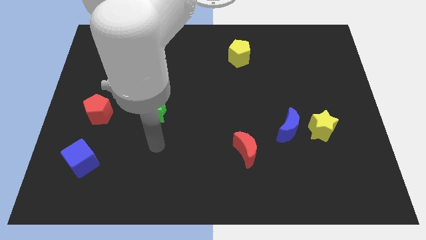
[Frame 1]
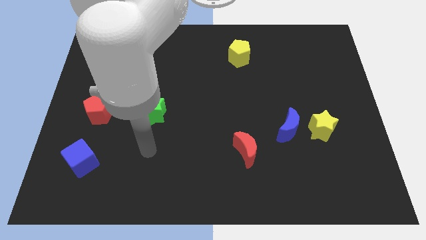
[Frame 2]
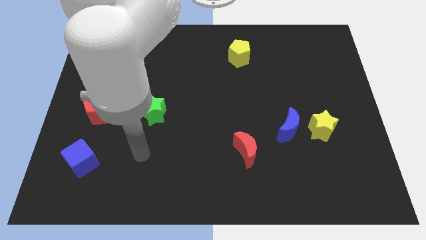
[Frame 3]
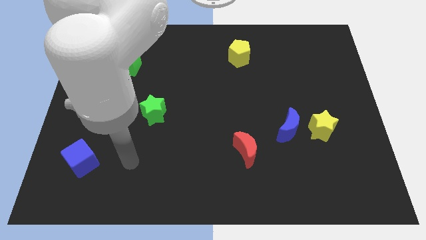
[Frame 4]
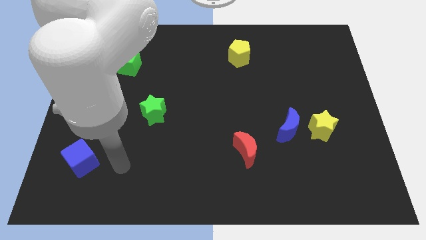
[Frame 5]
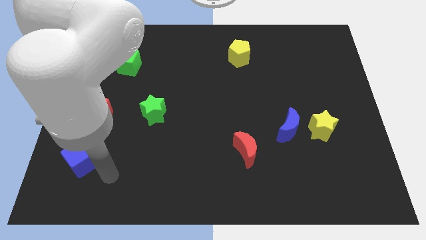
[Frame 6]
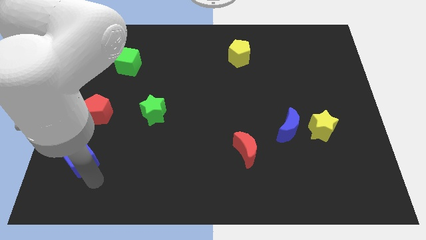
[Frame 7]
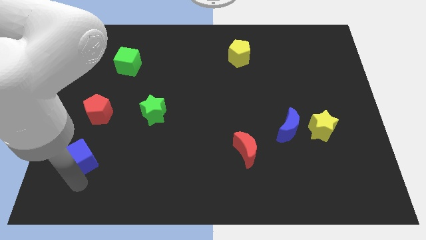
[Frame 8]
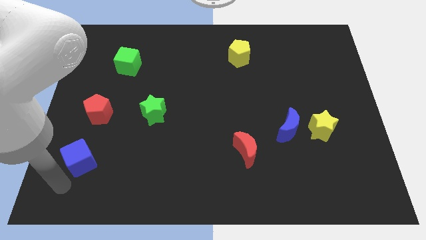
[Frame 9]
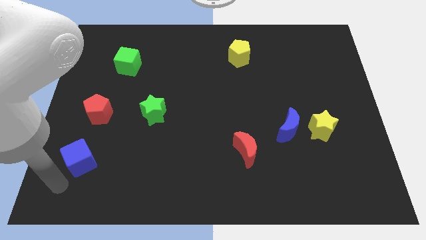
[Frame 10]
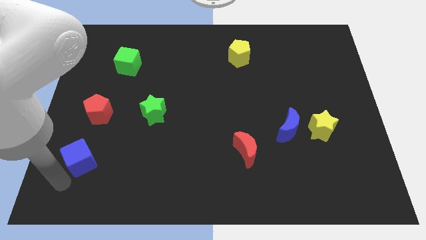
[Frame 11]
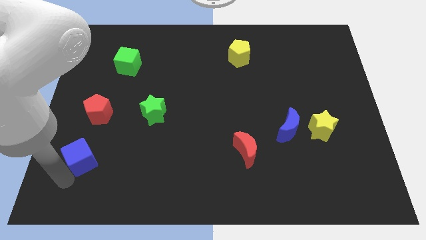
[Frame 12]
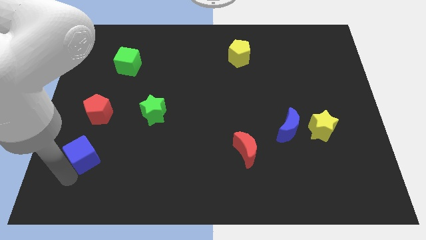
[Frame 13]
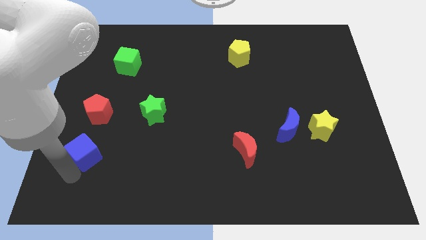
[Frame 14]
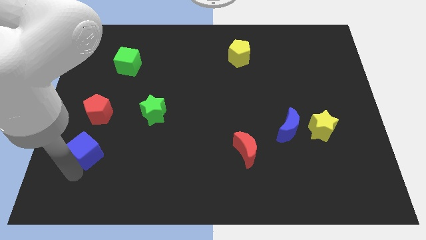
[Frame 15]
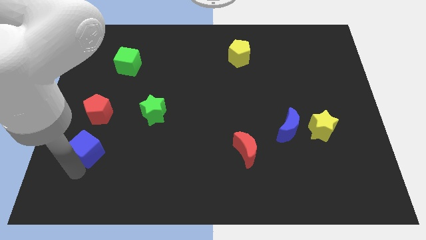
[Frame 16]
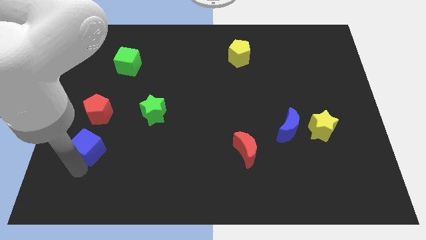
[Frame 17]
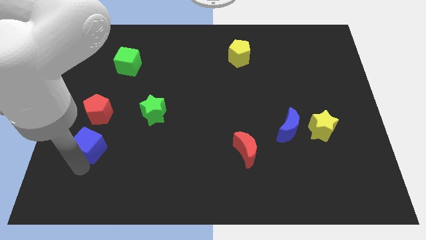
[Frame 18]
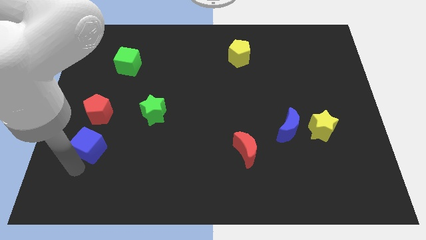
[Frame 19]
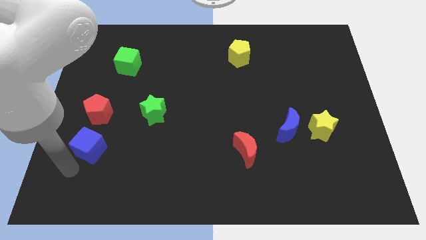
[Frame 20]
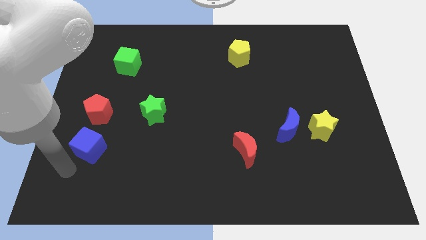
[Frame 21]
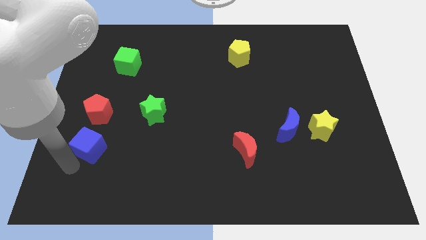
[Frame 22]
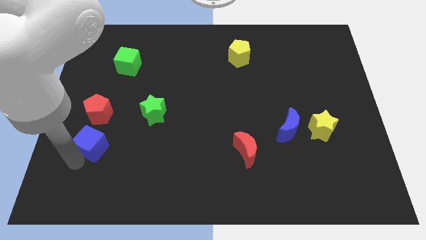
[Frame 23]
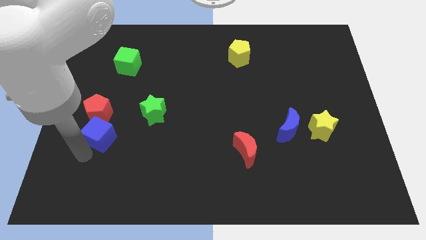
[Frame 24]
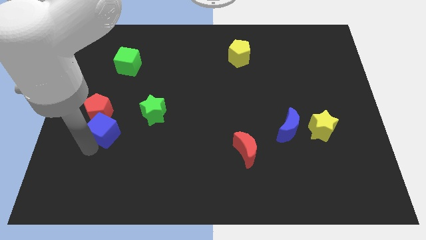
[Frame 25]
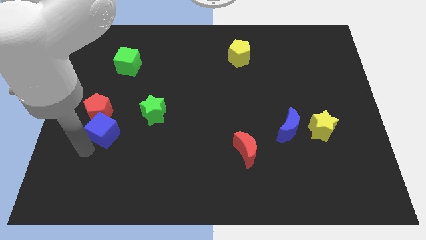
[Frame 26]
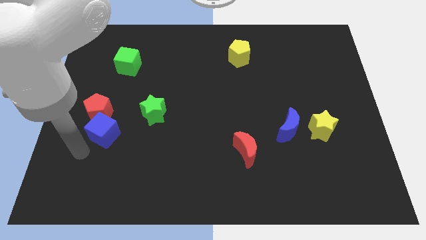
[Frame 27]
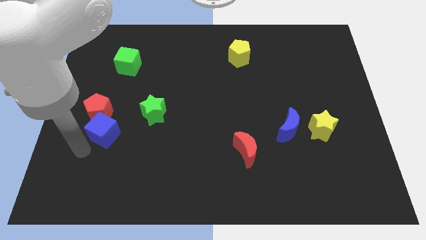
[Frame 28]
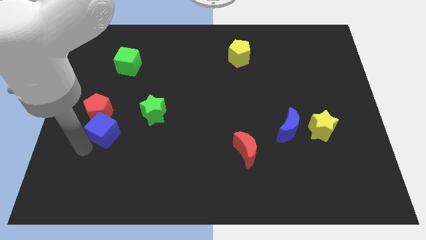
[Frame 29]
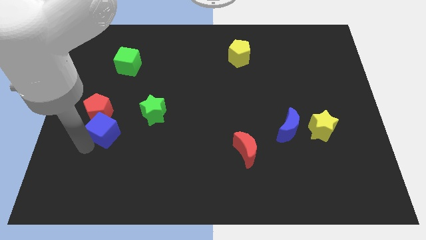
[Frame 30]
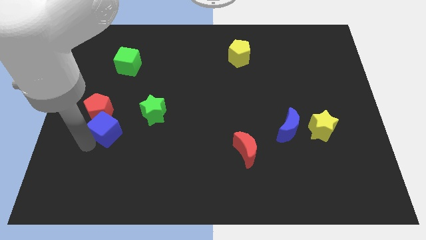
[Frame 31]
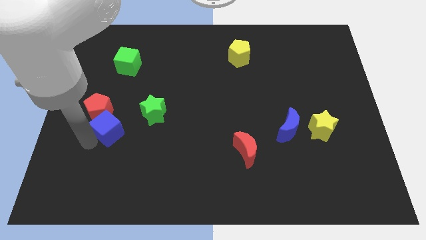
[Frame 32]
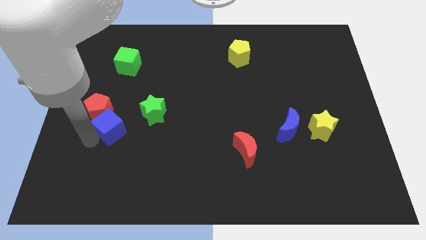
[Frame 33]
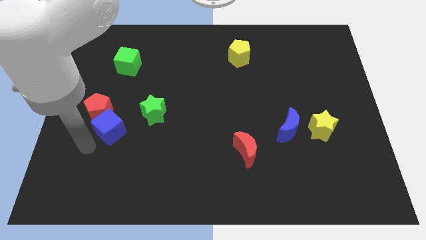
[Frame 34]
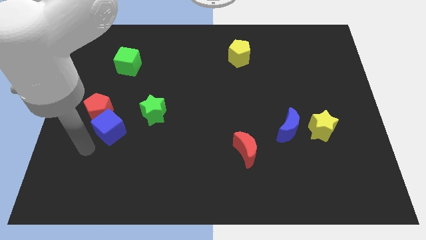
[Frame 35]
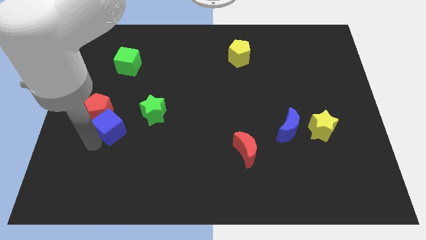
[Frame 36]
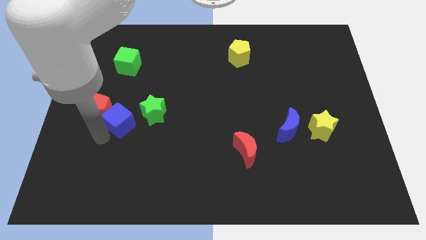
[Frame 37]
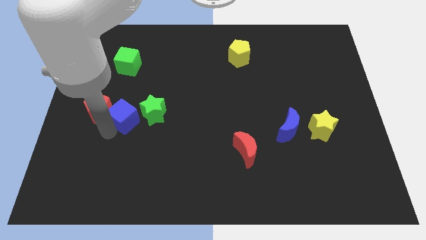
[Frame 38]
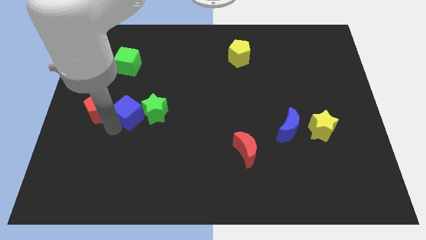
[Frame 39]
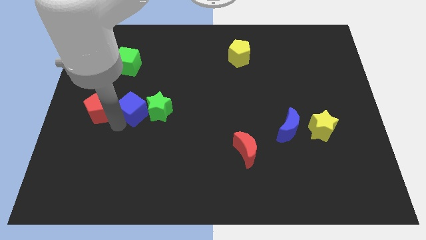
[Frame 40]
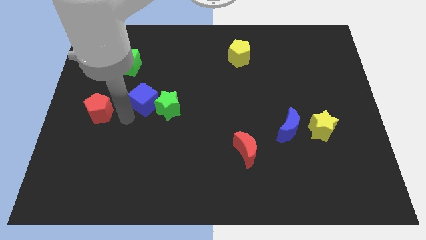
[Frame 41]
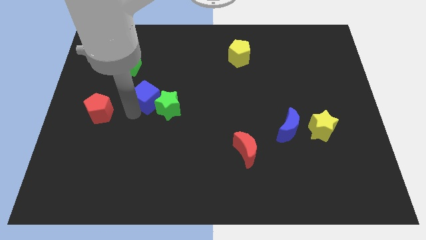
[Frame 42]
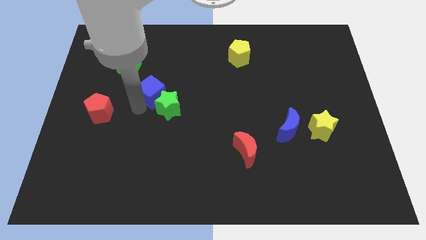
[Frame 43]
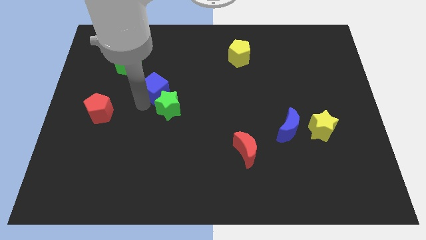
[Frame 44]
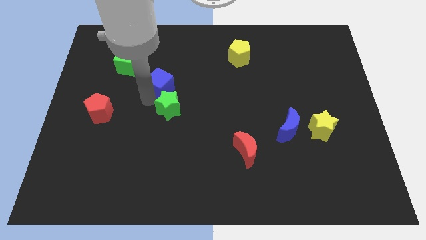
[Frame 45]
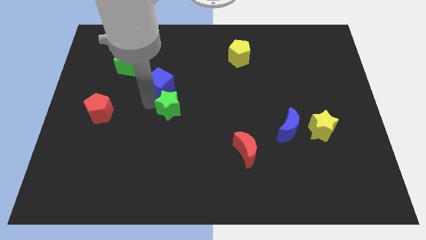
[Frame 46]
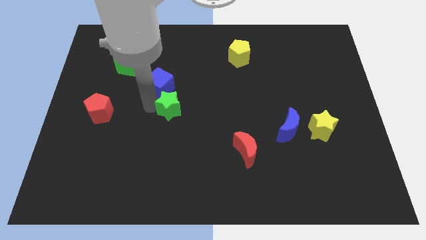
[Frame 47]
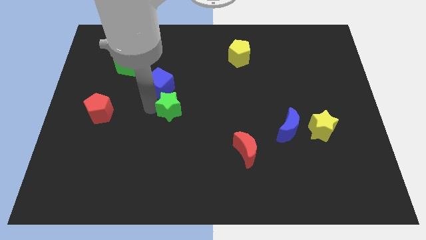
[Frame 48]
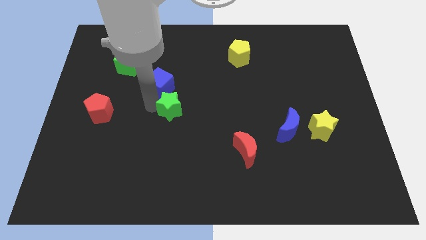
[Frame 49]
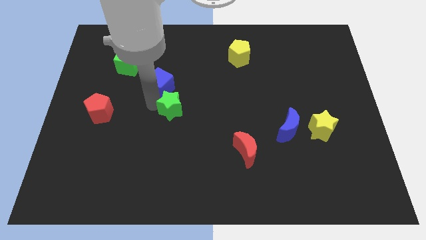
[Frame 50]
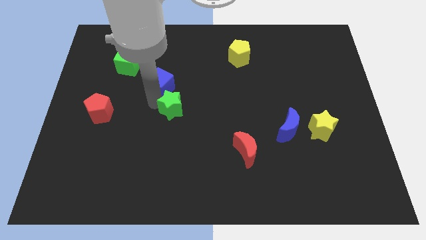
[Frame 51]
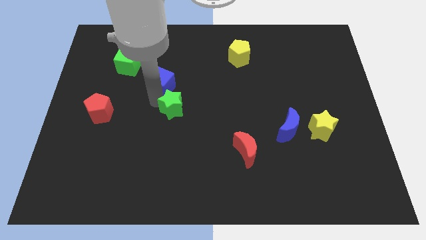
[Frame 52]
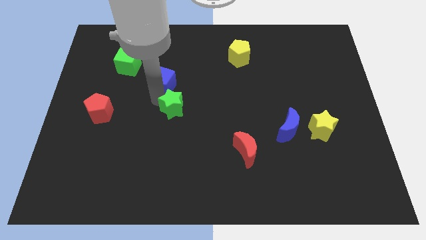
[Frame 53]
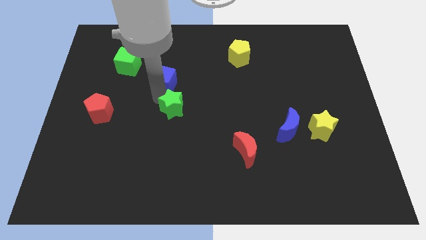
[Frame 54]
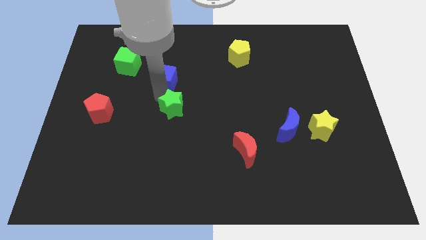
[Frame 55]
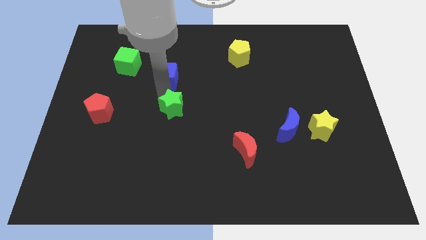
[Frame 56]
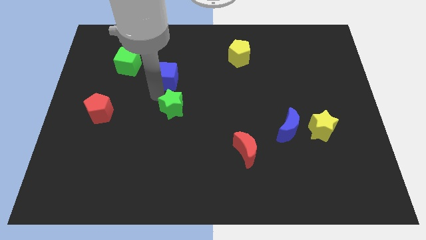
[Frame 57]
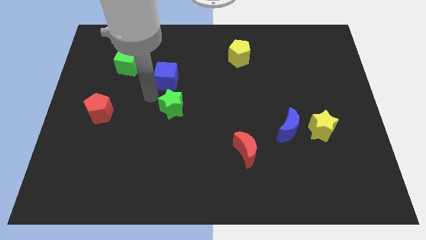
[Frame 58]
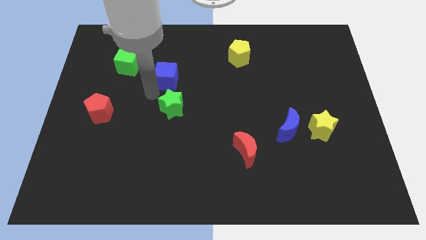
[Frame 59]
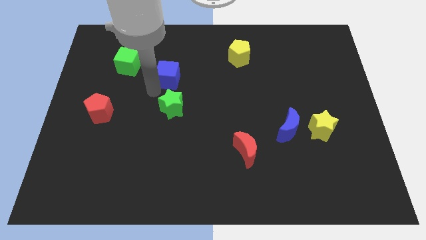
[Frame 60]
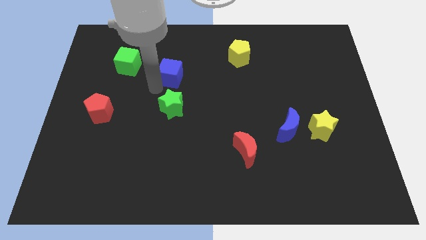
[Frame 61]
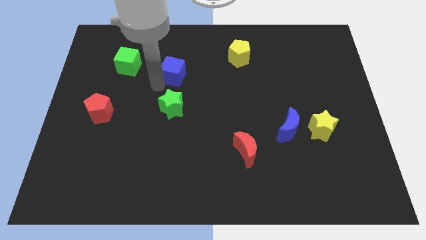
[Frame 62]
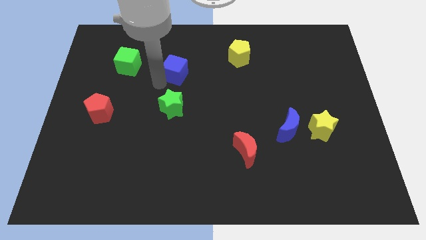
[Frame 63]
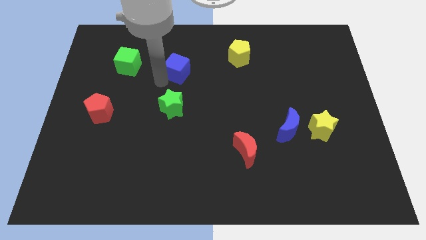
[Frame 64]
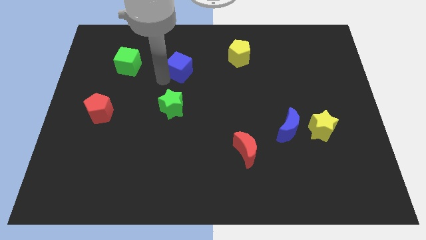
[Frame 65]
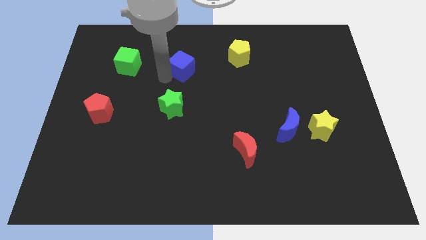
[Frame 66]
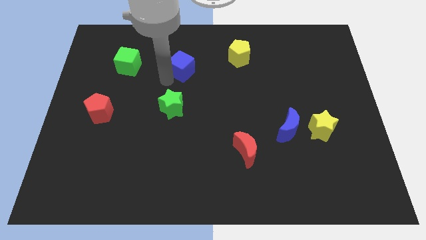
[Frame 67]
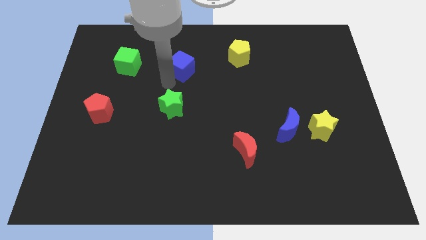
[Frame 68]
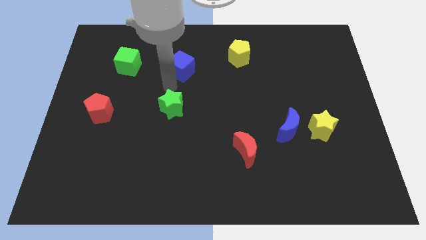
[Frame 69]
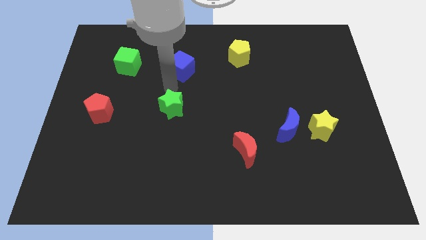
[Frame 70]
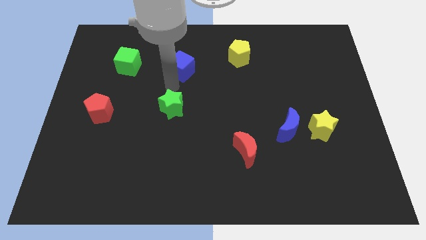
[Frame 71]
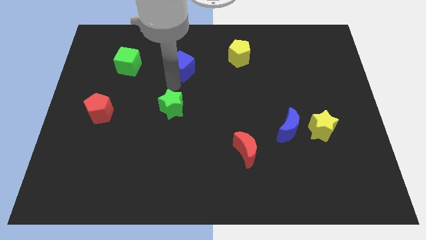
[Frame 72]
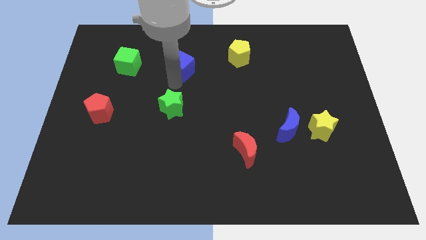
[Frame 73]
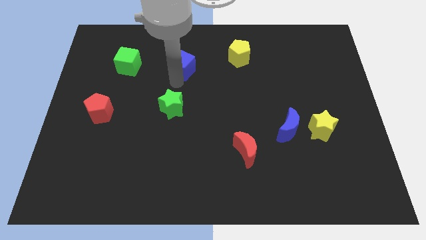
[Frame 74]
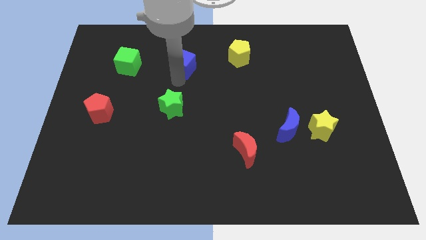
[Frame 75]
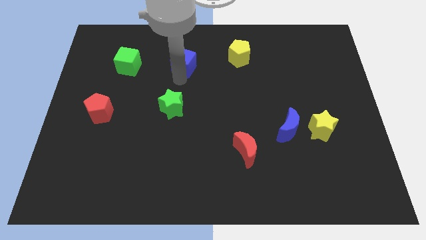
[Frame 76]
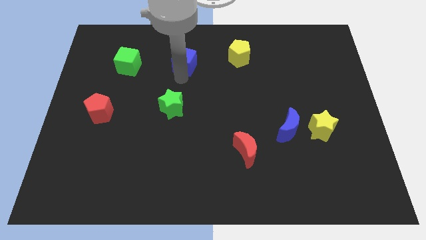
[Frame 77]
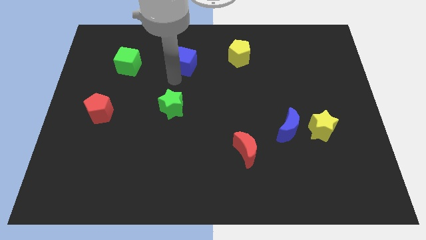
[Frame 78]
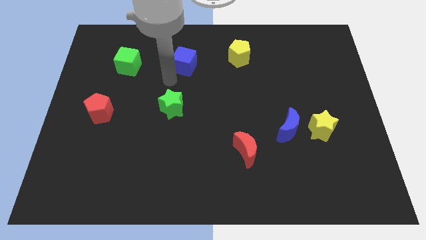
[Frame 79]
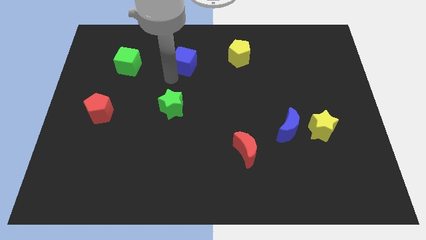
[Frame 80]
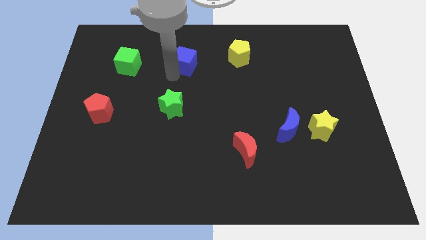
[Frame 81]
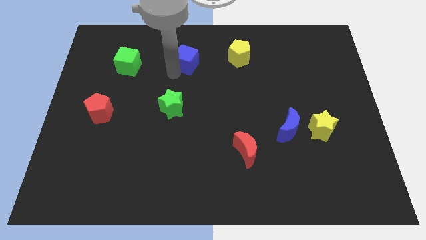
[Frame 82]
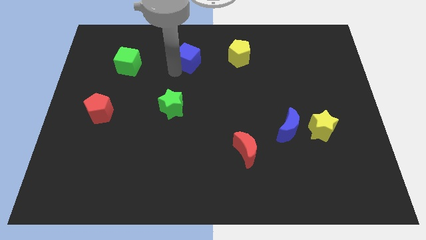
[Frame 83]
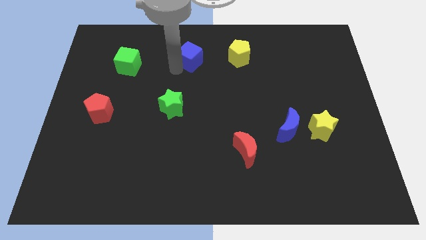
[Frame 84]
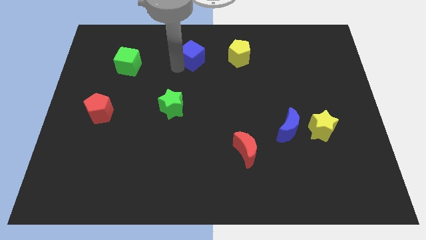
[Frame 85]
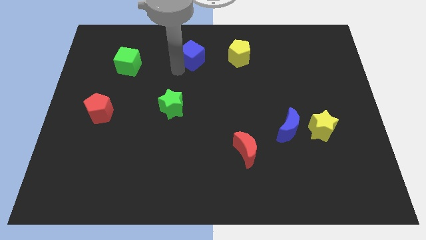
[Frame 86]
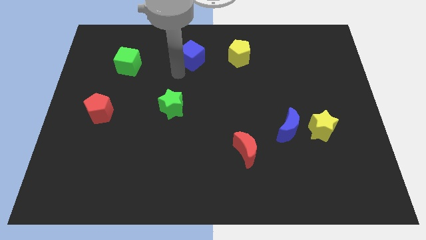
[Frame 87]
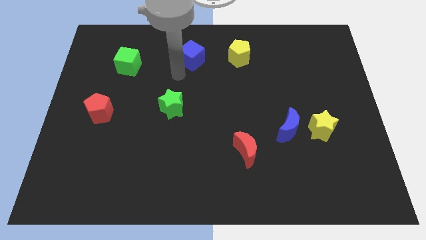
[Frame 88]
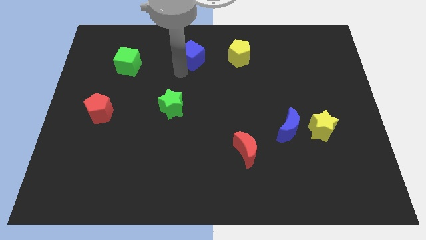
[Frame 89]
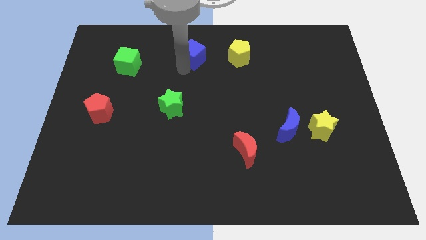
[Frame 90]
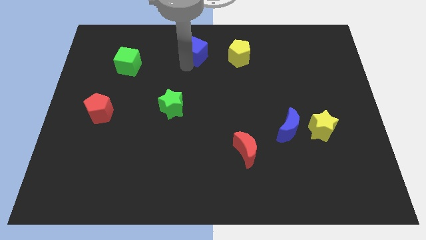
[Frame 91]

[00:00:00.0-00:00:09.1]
put the blue cube to the top side
